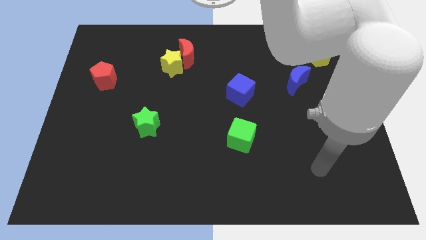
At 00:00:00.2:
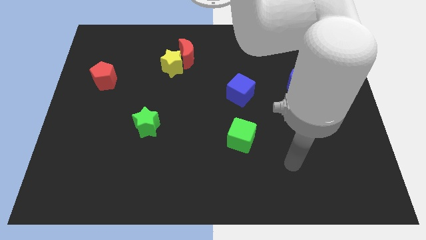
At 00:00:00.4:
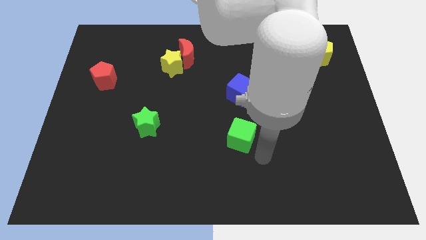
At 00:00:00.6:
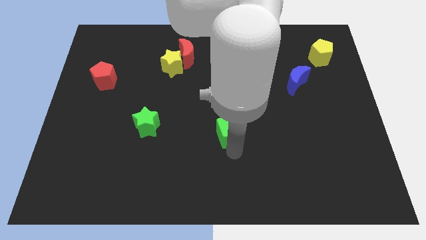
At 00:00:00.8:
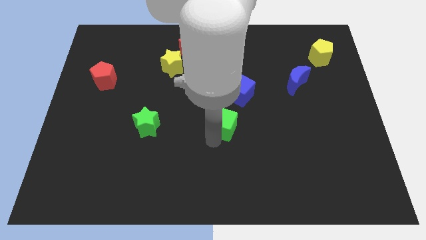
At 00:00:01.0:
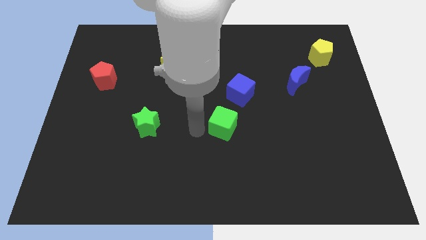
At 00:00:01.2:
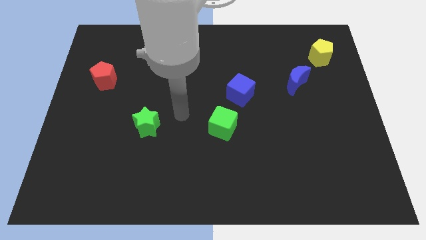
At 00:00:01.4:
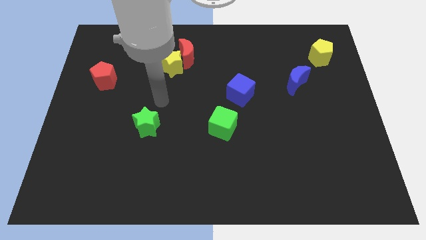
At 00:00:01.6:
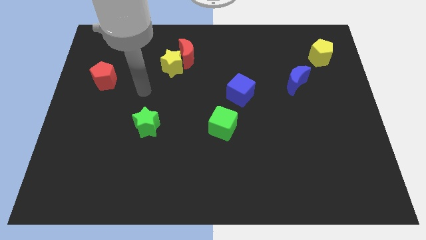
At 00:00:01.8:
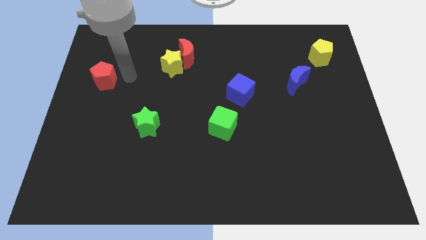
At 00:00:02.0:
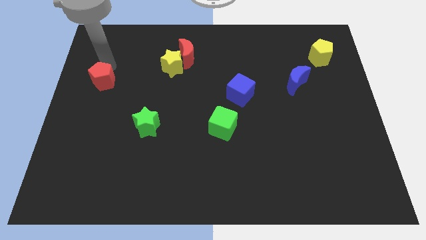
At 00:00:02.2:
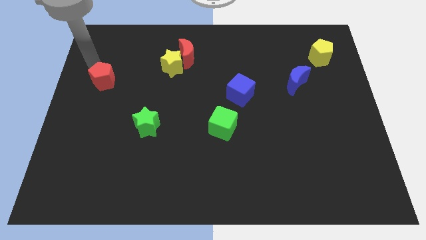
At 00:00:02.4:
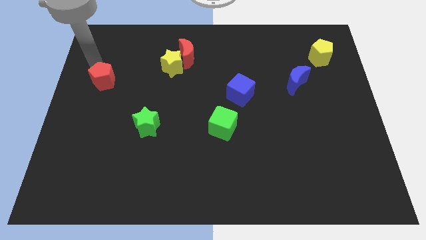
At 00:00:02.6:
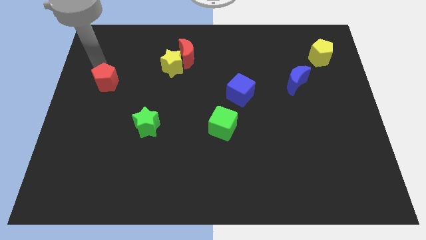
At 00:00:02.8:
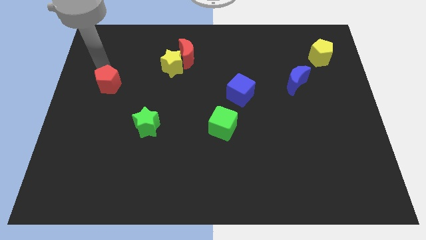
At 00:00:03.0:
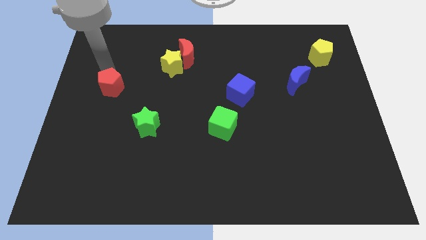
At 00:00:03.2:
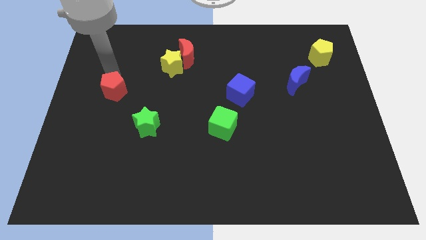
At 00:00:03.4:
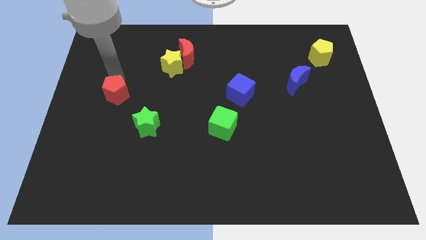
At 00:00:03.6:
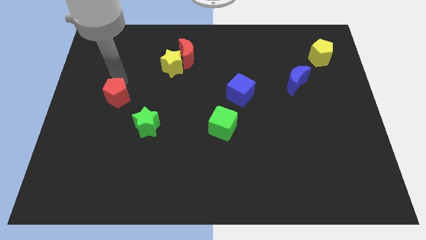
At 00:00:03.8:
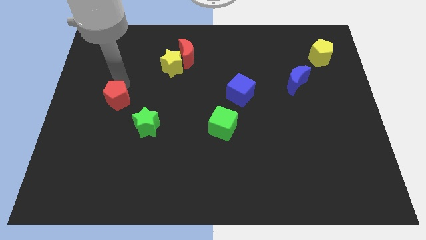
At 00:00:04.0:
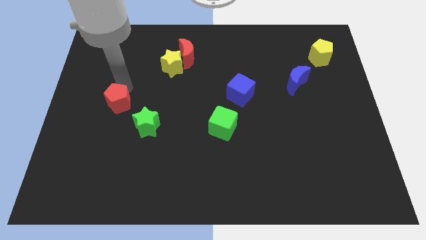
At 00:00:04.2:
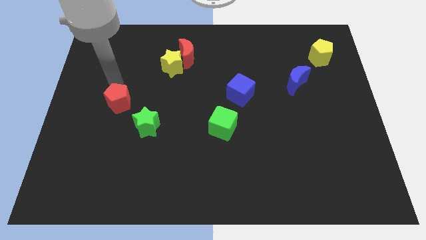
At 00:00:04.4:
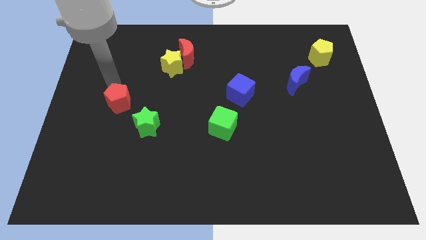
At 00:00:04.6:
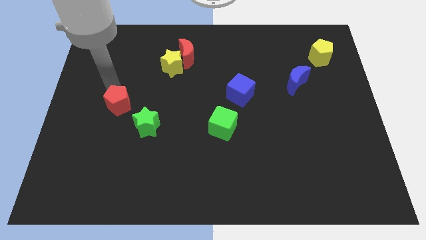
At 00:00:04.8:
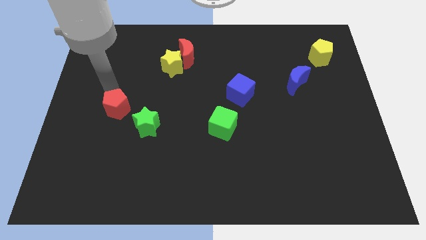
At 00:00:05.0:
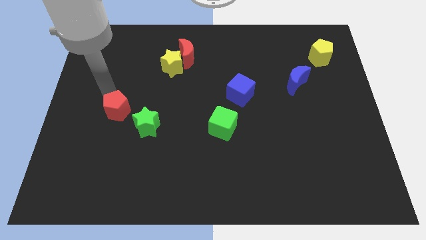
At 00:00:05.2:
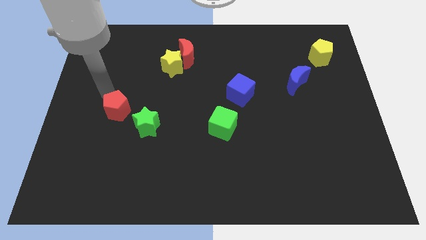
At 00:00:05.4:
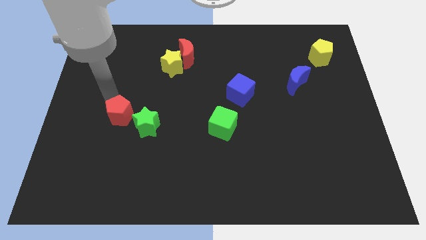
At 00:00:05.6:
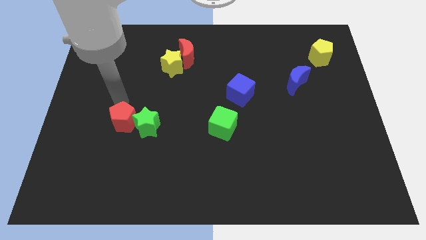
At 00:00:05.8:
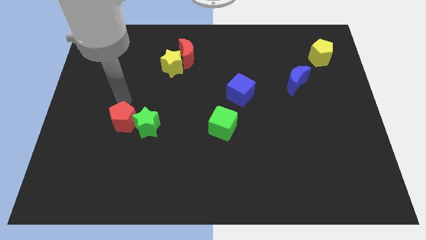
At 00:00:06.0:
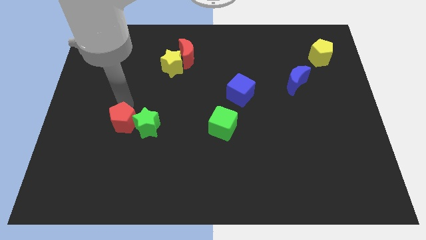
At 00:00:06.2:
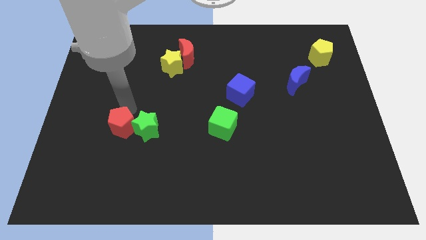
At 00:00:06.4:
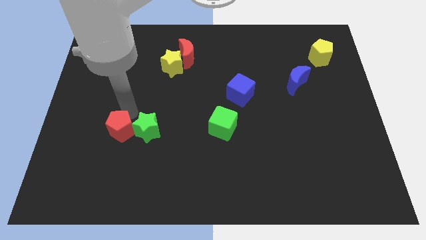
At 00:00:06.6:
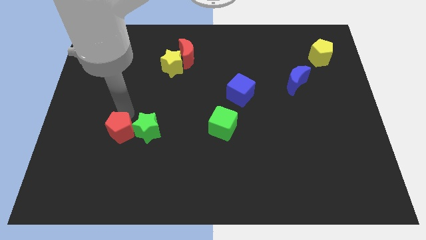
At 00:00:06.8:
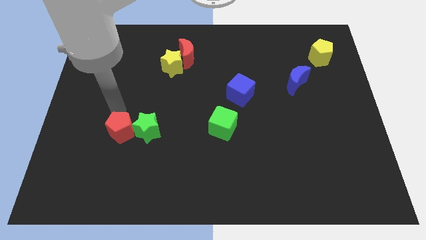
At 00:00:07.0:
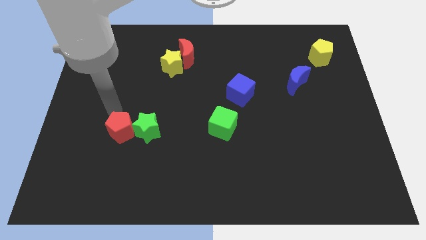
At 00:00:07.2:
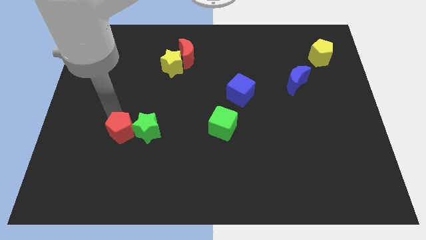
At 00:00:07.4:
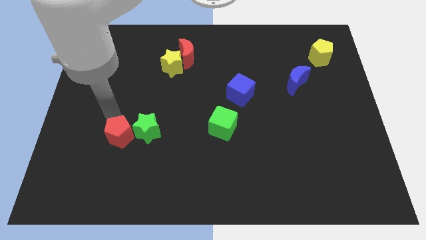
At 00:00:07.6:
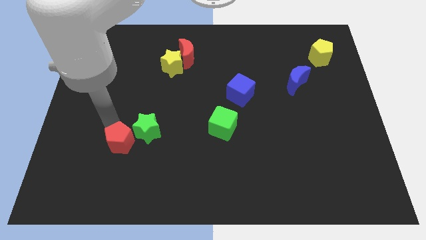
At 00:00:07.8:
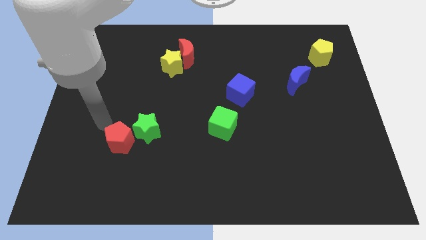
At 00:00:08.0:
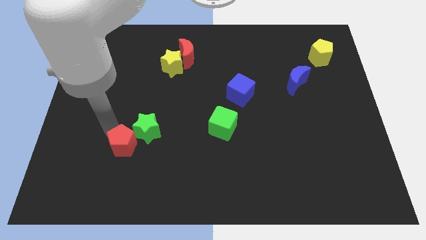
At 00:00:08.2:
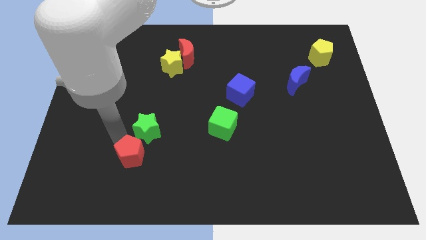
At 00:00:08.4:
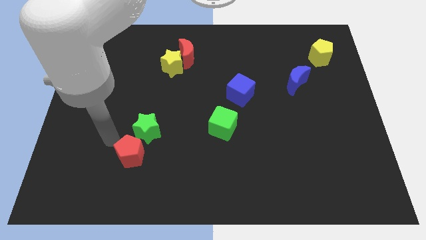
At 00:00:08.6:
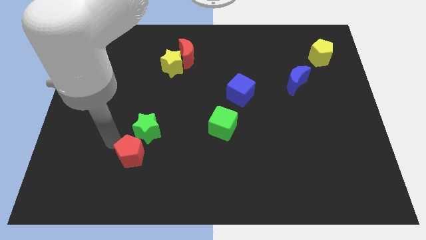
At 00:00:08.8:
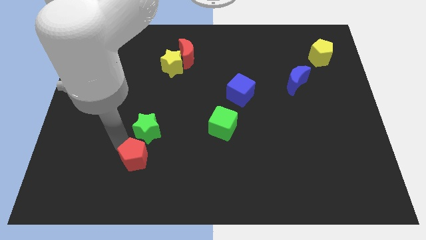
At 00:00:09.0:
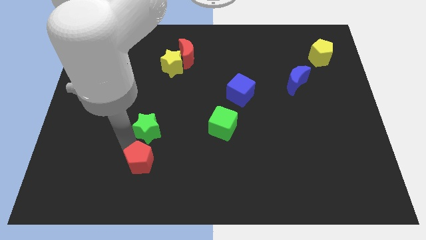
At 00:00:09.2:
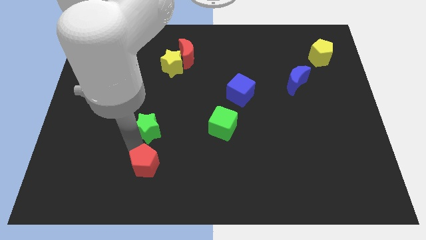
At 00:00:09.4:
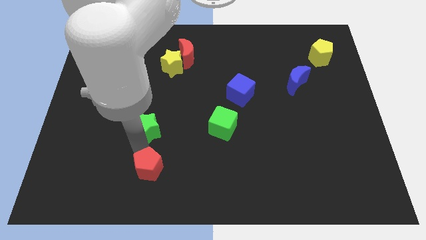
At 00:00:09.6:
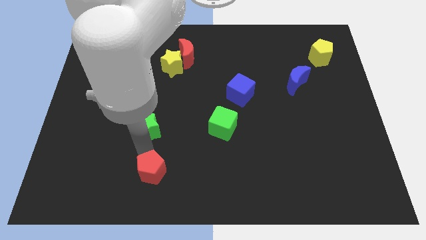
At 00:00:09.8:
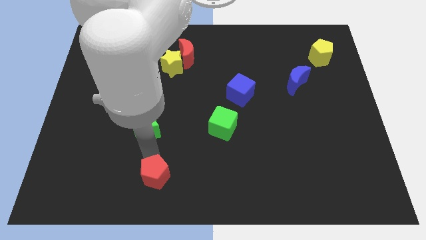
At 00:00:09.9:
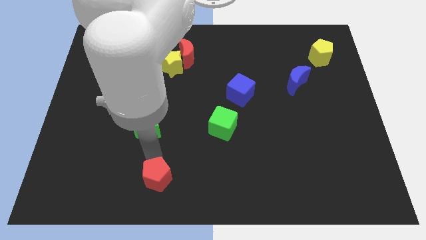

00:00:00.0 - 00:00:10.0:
slide the red pentagon to the bottom side
